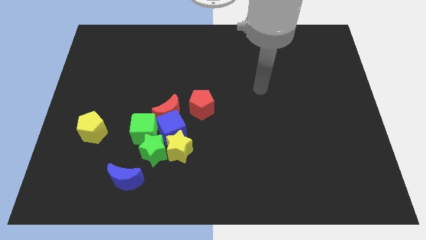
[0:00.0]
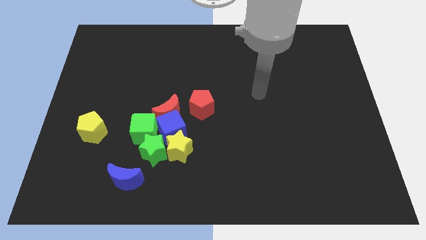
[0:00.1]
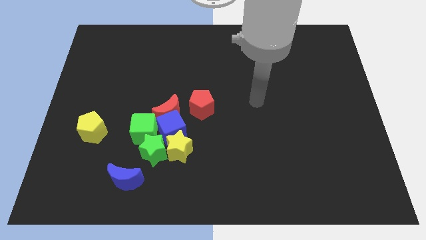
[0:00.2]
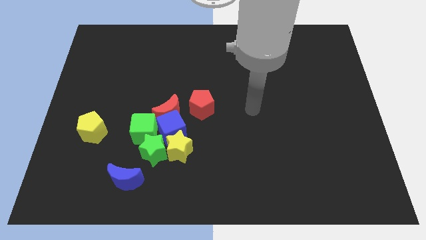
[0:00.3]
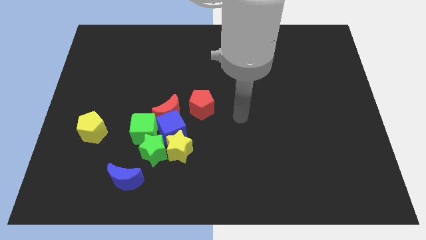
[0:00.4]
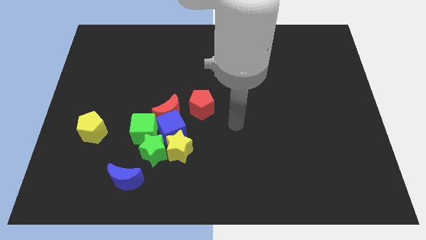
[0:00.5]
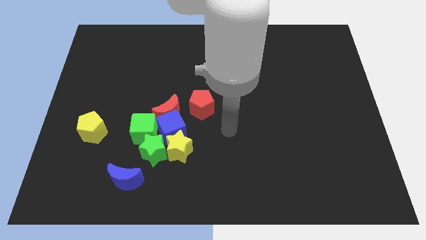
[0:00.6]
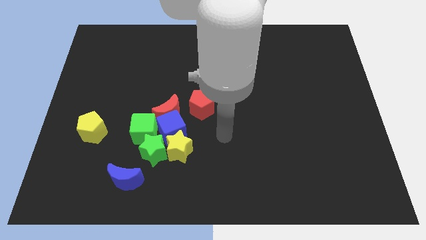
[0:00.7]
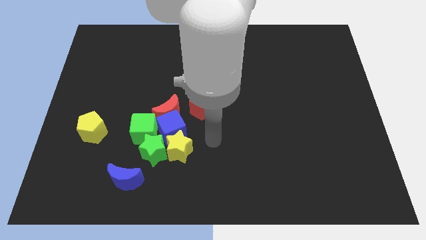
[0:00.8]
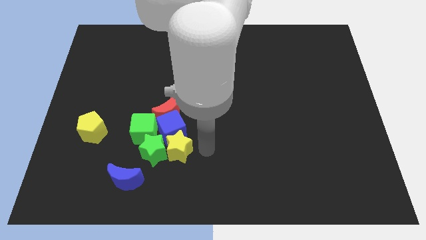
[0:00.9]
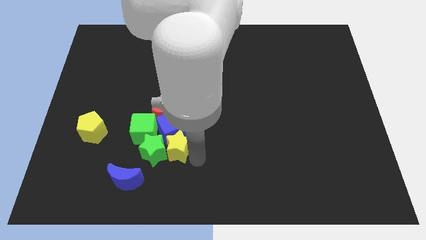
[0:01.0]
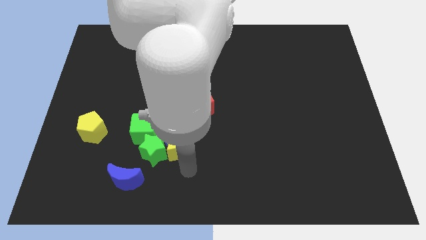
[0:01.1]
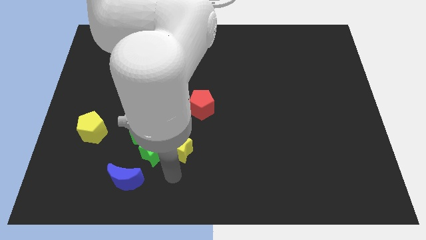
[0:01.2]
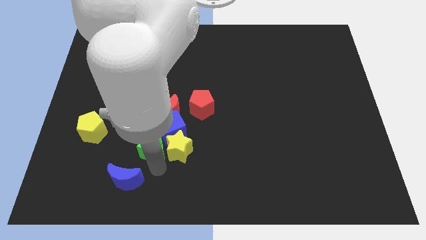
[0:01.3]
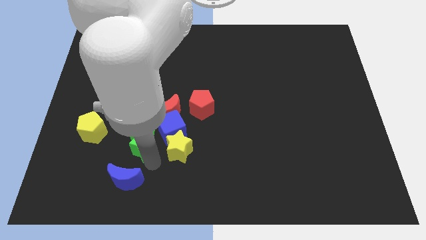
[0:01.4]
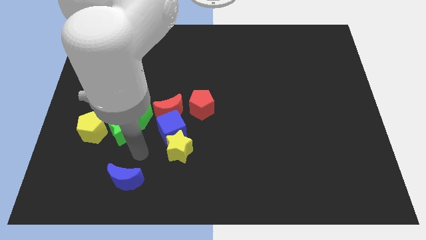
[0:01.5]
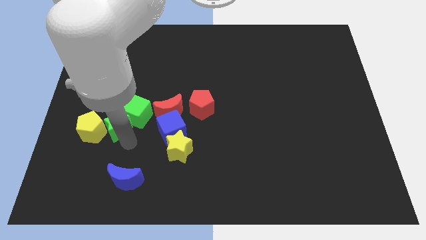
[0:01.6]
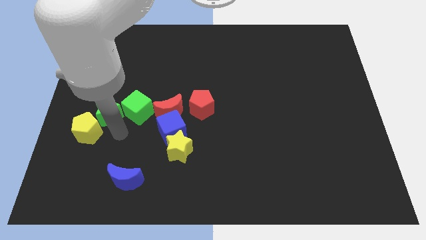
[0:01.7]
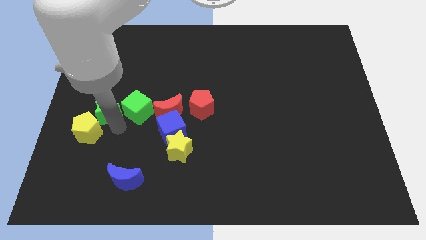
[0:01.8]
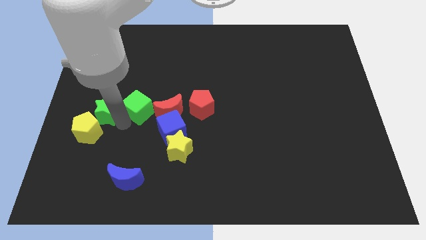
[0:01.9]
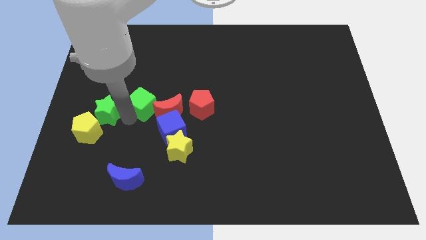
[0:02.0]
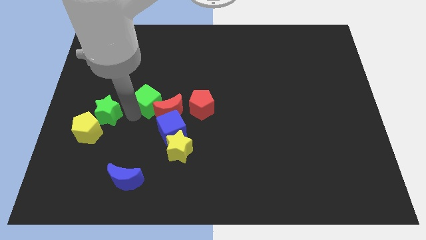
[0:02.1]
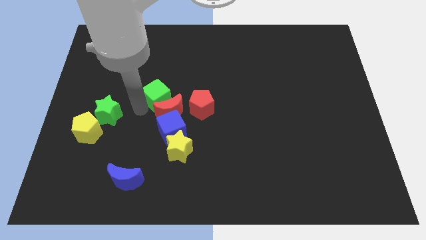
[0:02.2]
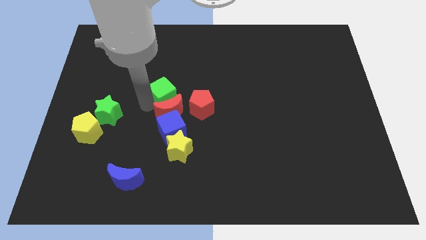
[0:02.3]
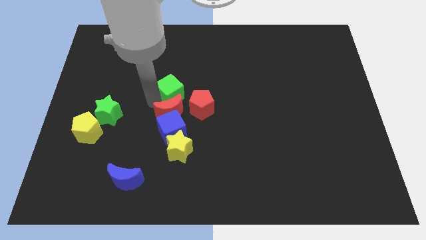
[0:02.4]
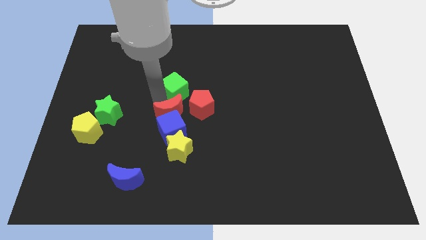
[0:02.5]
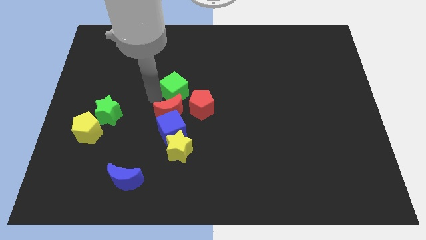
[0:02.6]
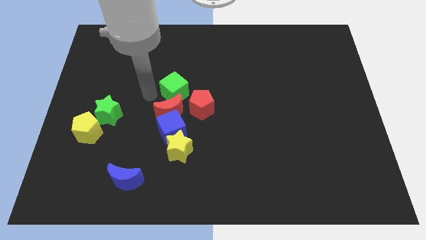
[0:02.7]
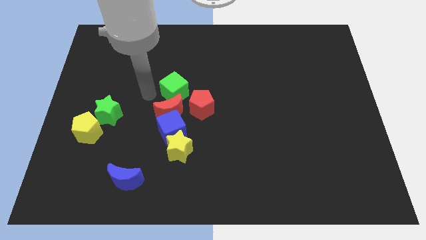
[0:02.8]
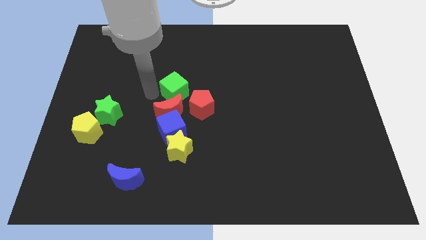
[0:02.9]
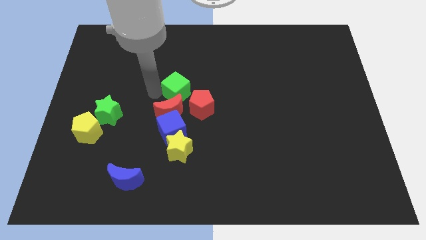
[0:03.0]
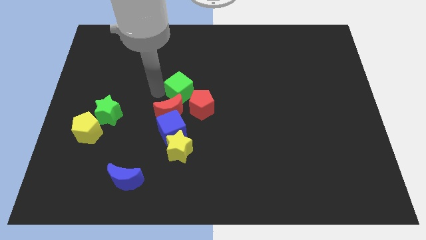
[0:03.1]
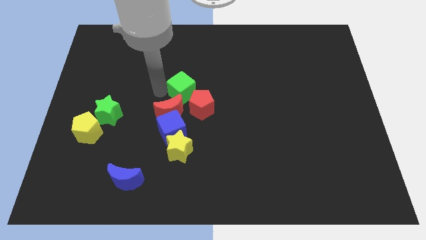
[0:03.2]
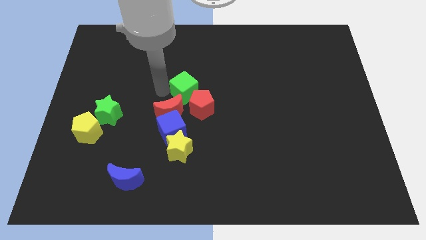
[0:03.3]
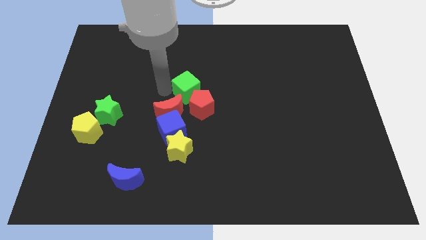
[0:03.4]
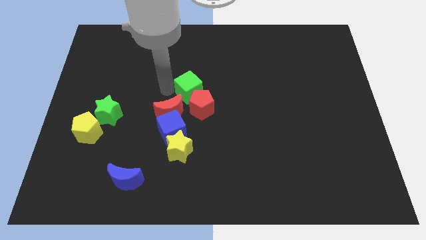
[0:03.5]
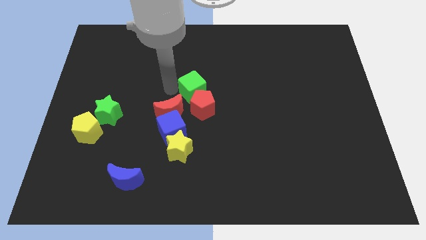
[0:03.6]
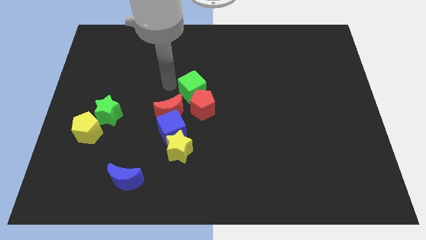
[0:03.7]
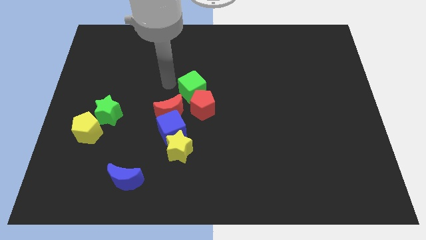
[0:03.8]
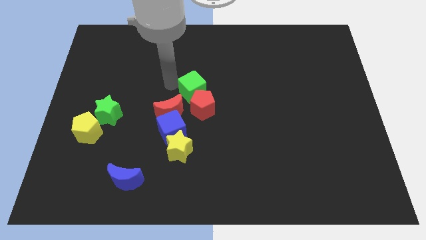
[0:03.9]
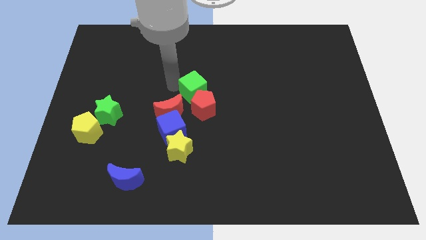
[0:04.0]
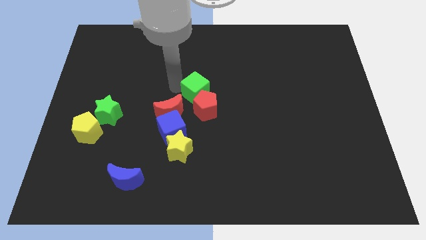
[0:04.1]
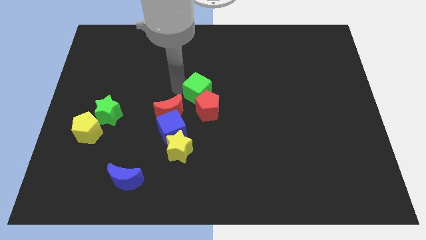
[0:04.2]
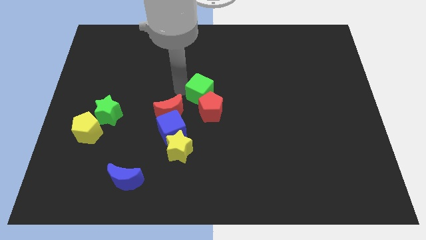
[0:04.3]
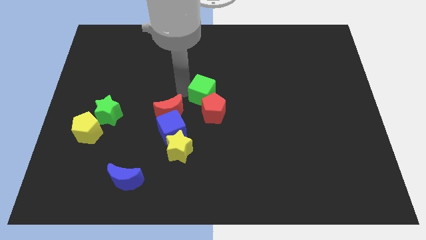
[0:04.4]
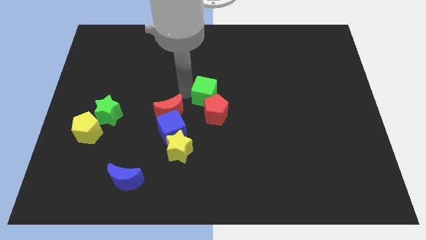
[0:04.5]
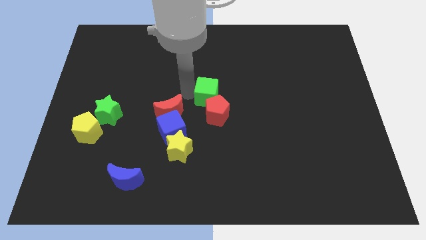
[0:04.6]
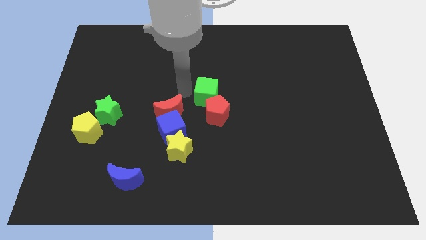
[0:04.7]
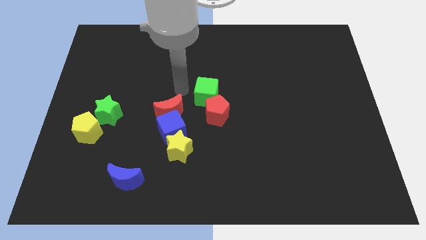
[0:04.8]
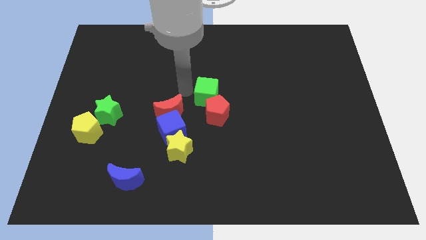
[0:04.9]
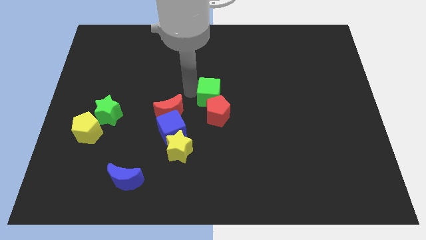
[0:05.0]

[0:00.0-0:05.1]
move the green cube to the right of the red moon

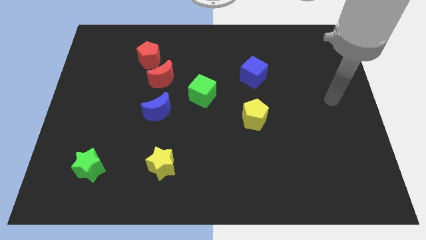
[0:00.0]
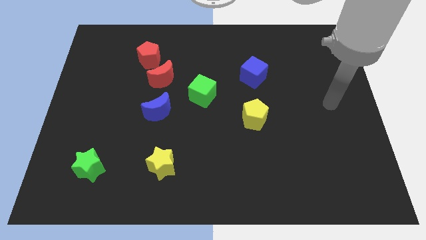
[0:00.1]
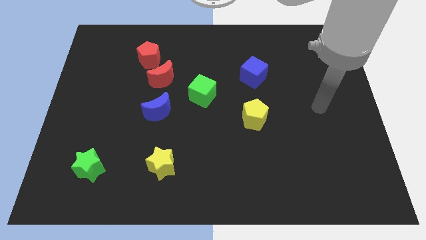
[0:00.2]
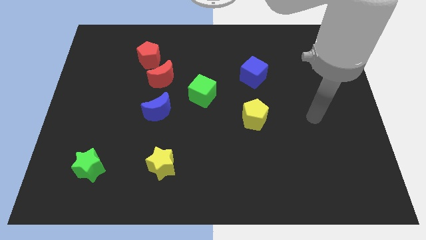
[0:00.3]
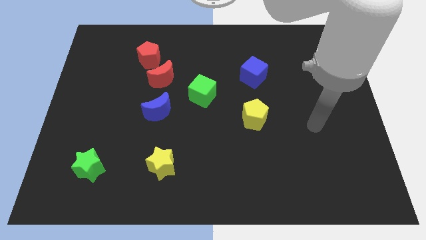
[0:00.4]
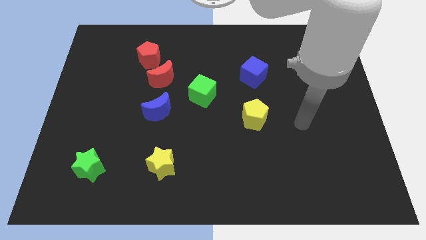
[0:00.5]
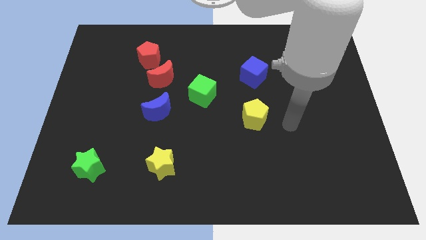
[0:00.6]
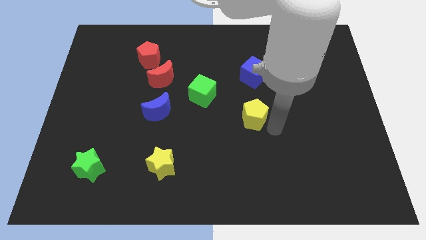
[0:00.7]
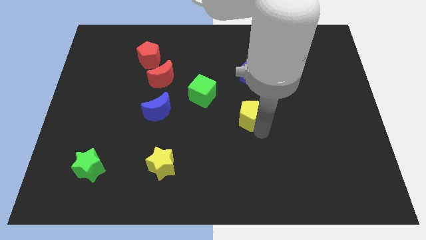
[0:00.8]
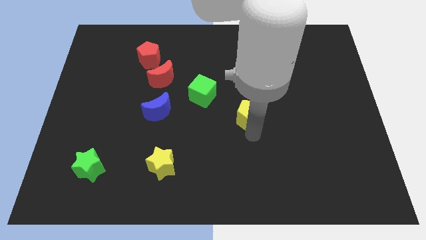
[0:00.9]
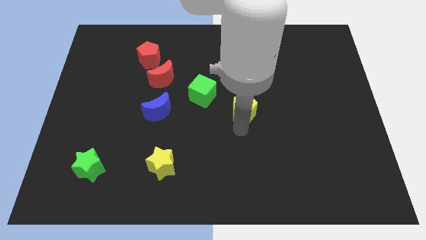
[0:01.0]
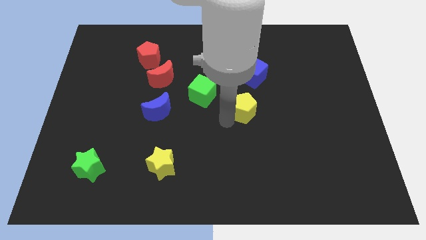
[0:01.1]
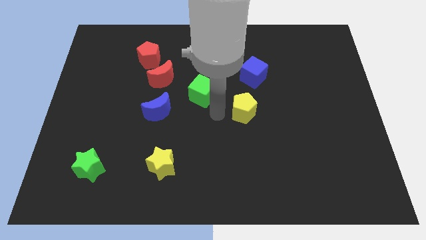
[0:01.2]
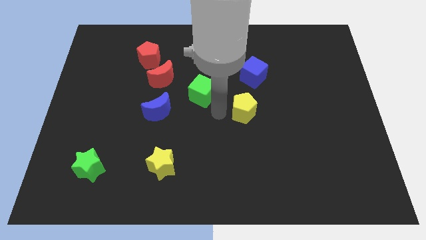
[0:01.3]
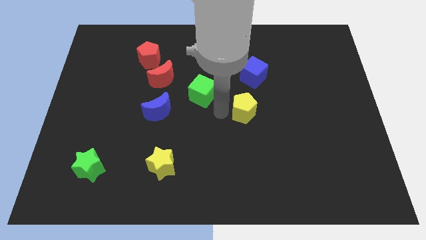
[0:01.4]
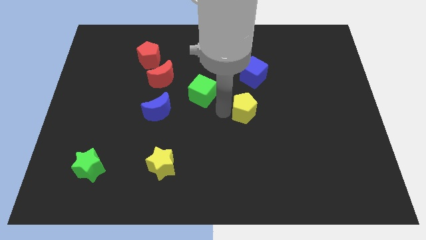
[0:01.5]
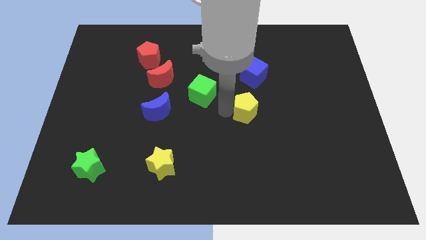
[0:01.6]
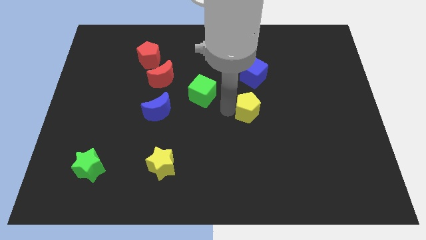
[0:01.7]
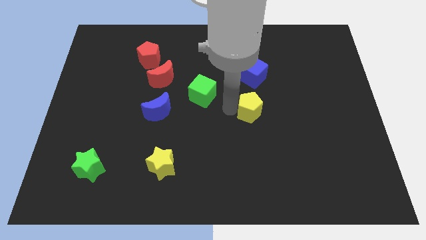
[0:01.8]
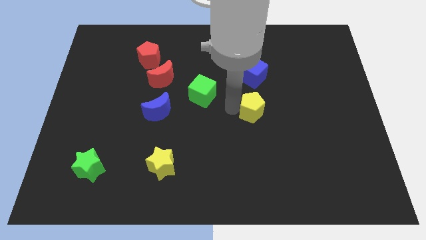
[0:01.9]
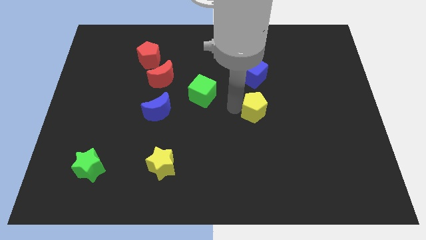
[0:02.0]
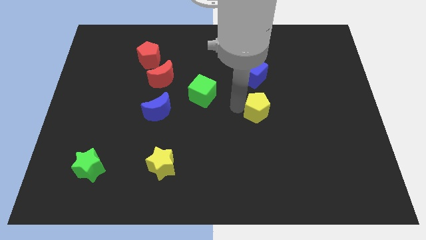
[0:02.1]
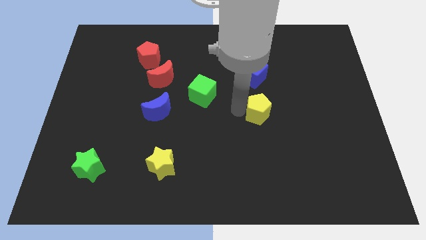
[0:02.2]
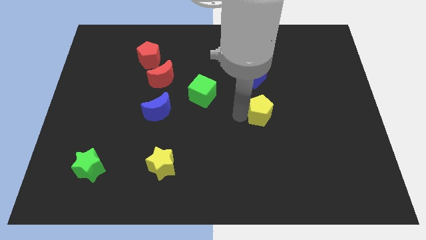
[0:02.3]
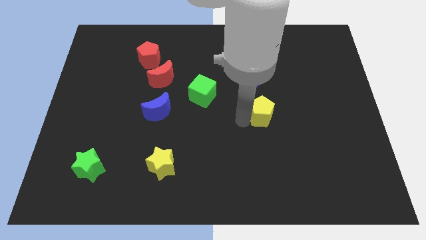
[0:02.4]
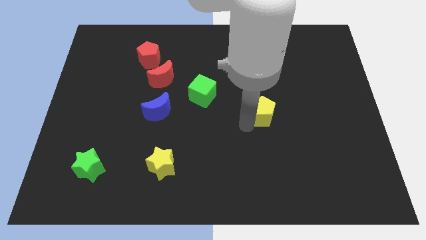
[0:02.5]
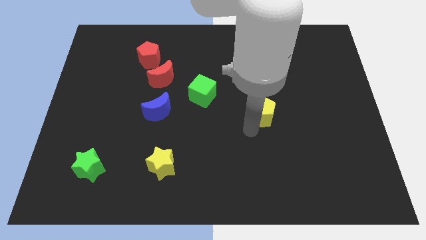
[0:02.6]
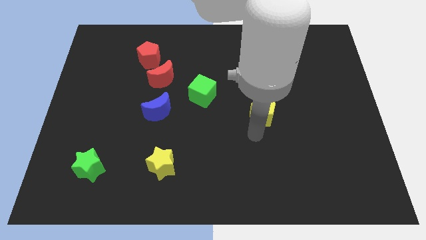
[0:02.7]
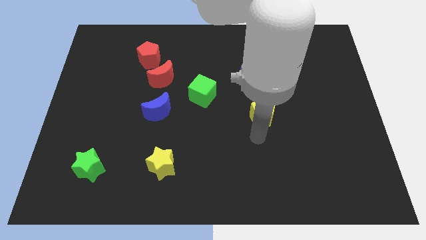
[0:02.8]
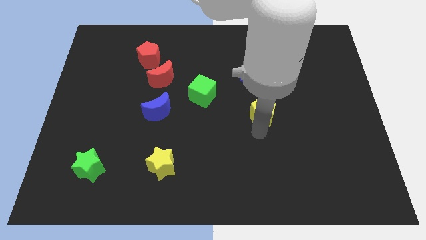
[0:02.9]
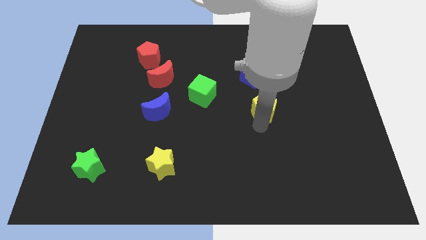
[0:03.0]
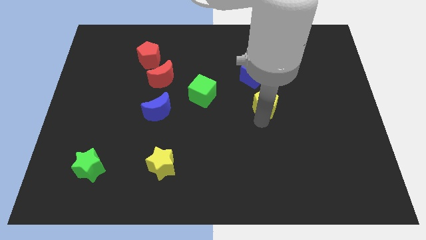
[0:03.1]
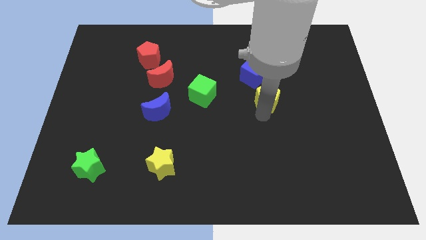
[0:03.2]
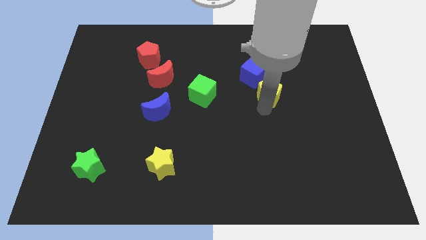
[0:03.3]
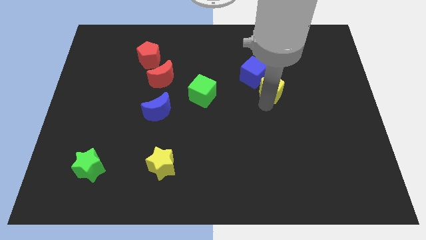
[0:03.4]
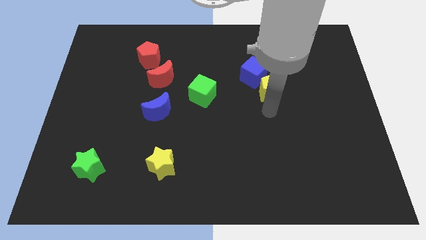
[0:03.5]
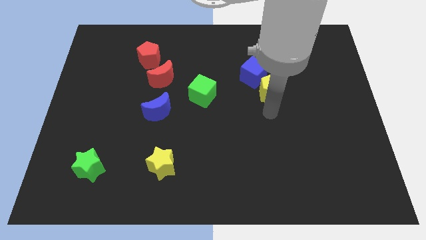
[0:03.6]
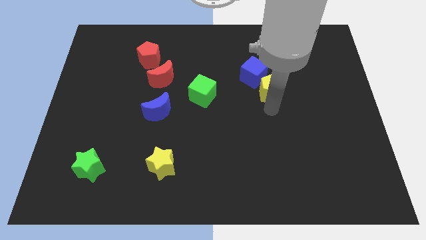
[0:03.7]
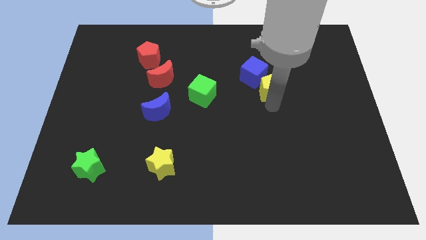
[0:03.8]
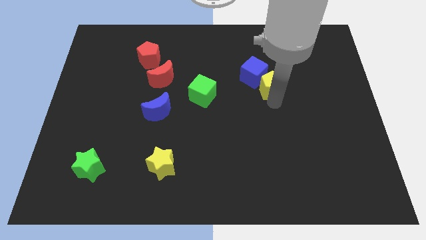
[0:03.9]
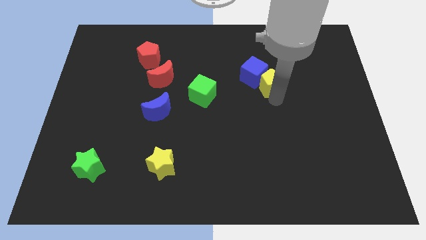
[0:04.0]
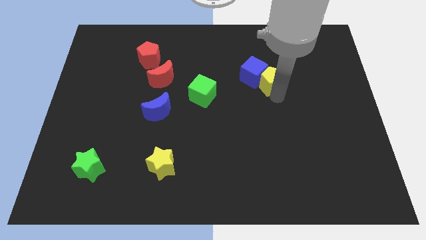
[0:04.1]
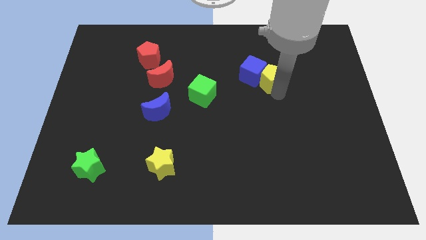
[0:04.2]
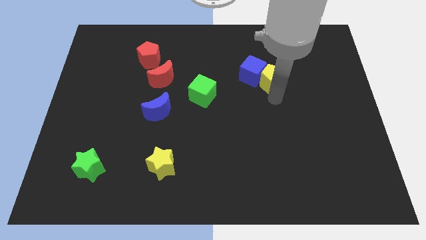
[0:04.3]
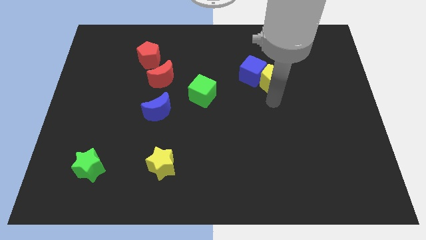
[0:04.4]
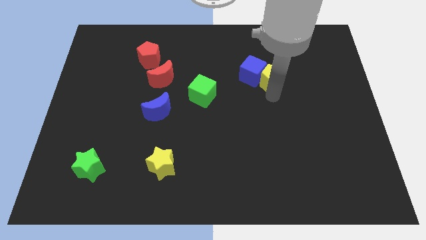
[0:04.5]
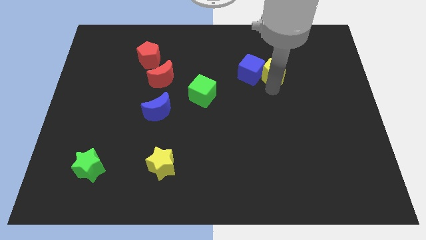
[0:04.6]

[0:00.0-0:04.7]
slide the yellow pentagon to the top right side of the blue cube
